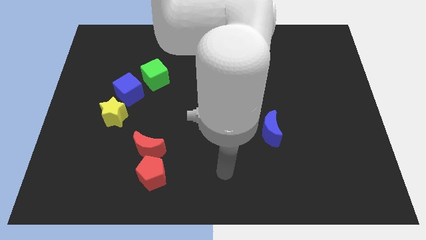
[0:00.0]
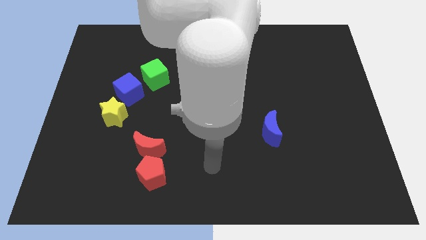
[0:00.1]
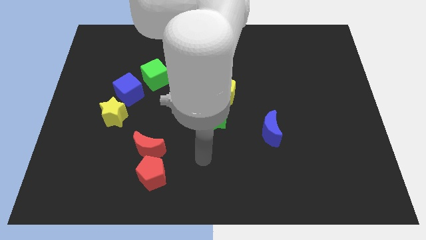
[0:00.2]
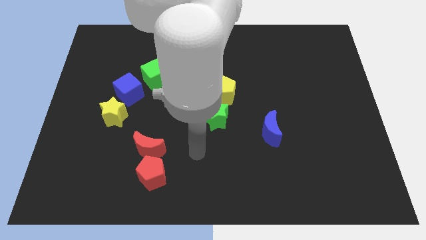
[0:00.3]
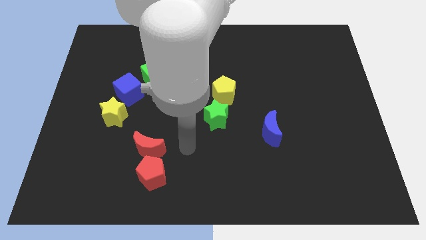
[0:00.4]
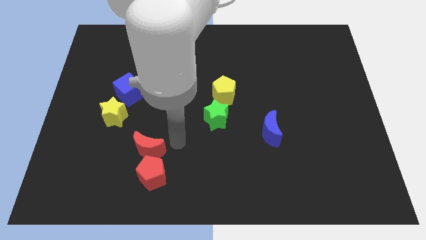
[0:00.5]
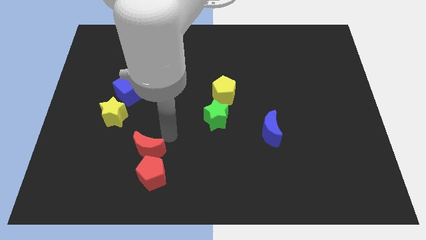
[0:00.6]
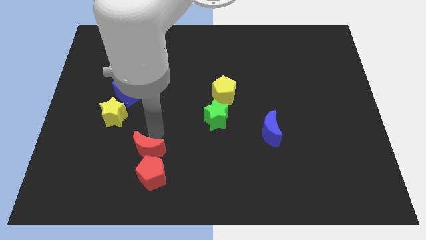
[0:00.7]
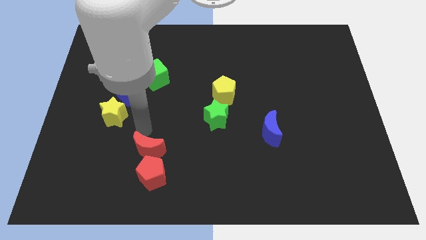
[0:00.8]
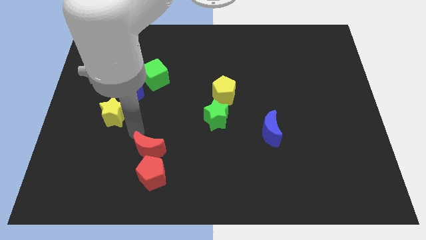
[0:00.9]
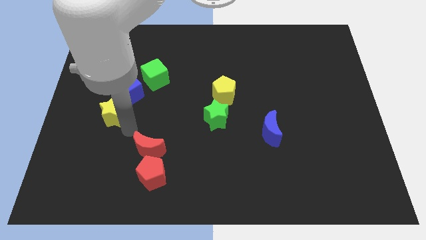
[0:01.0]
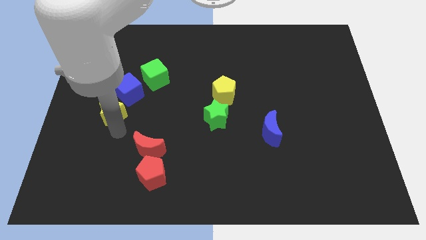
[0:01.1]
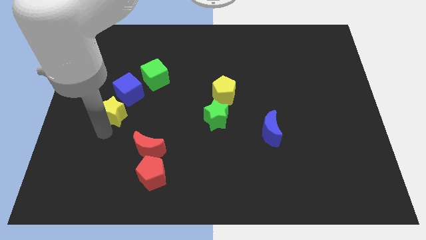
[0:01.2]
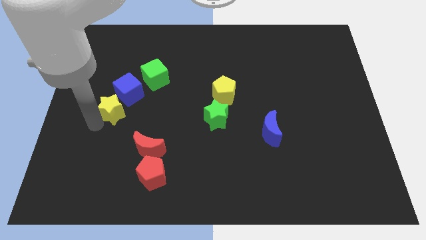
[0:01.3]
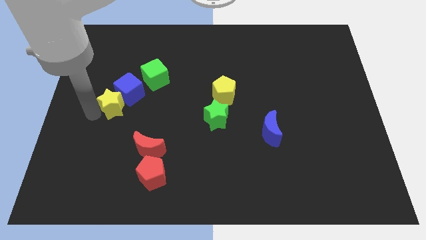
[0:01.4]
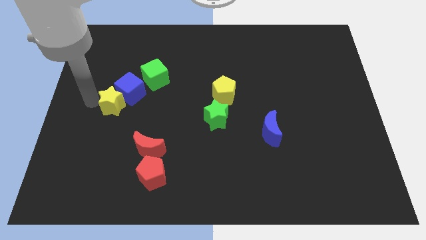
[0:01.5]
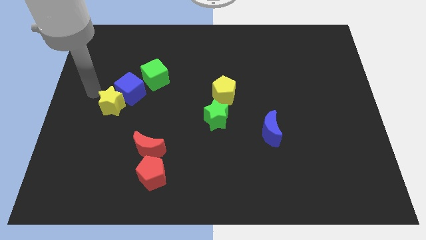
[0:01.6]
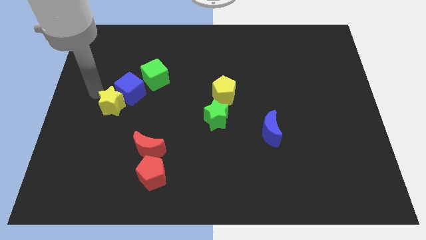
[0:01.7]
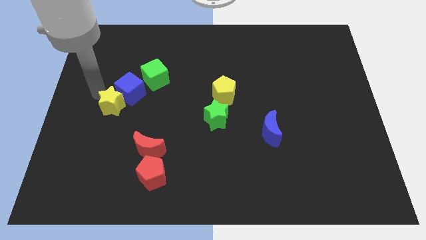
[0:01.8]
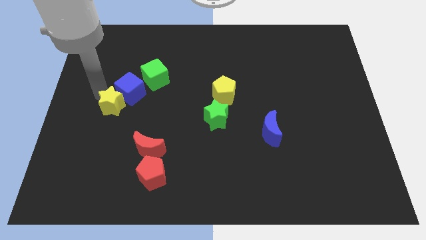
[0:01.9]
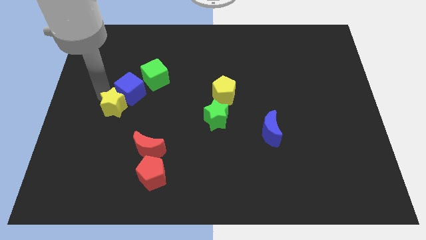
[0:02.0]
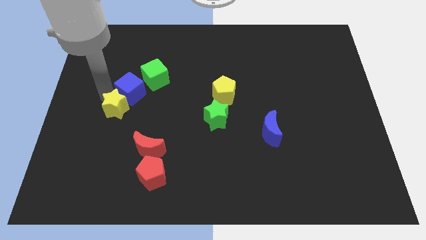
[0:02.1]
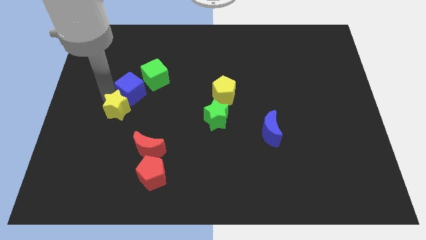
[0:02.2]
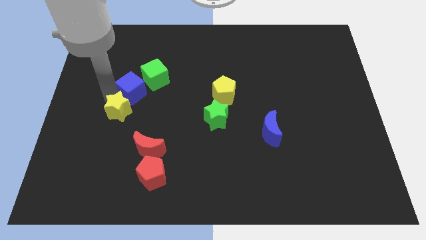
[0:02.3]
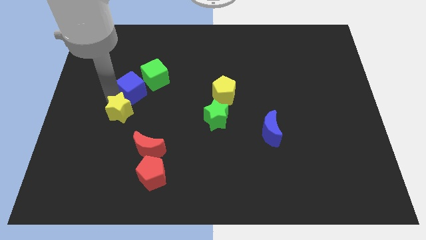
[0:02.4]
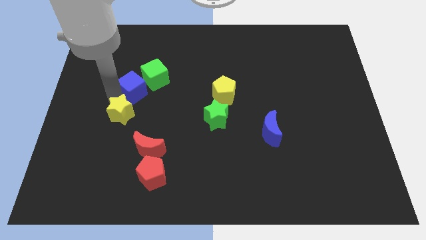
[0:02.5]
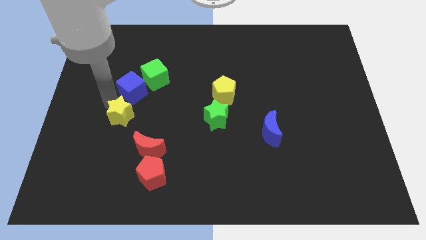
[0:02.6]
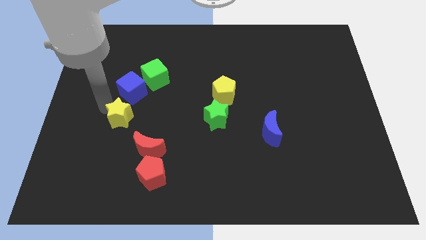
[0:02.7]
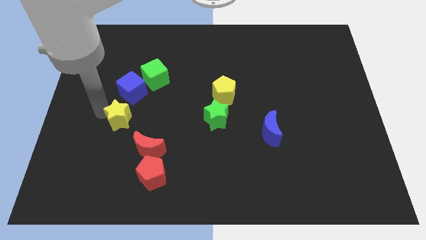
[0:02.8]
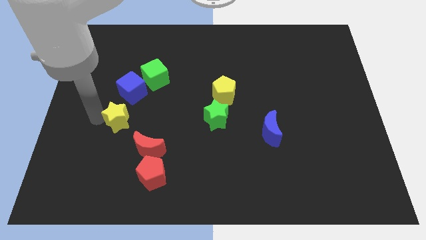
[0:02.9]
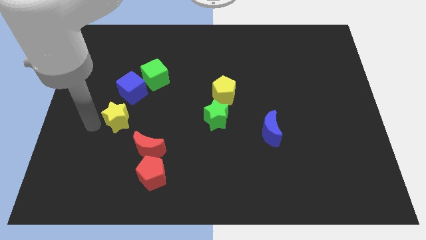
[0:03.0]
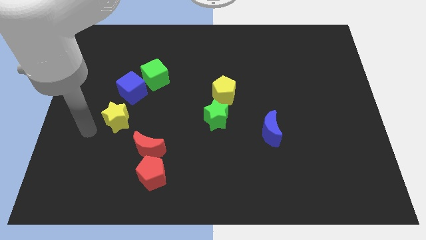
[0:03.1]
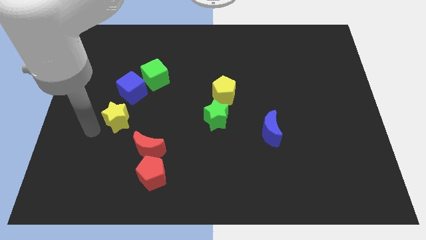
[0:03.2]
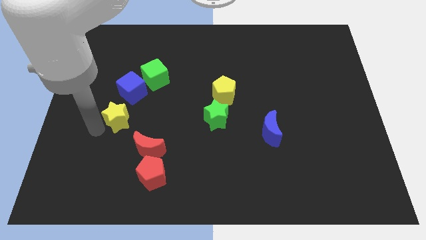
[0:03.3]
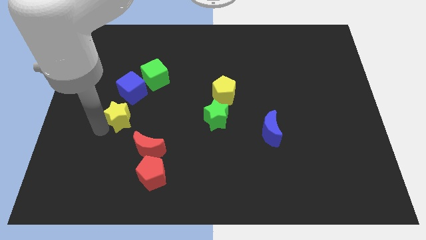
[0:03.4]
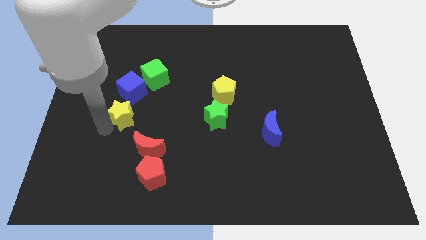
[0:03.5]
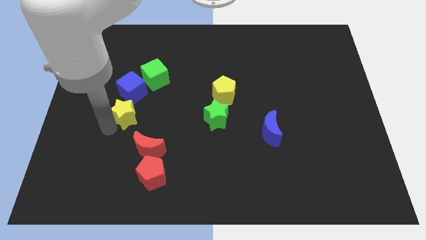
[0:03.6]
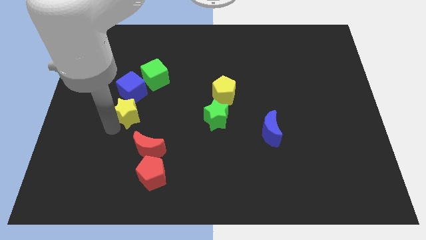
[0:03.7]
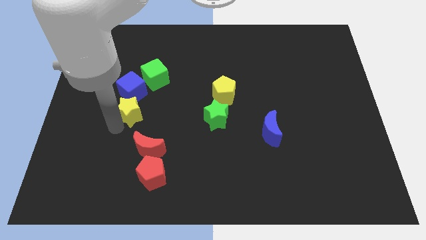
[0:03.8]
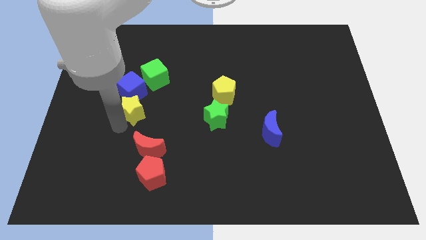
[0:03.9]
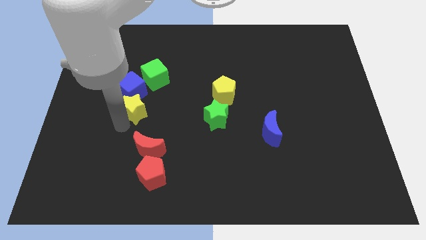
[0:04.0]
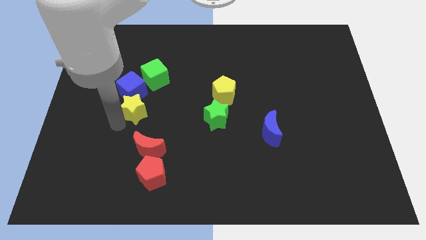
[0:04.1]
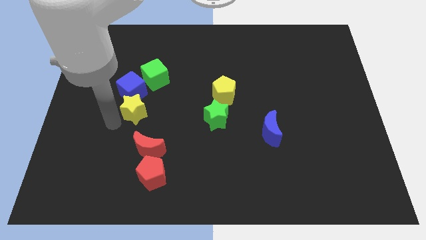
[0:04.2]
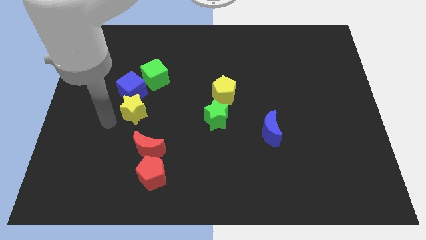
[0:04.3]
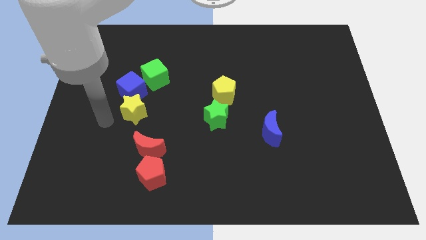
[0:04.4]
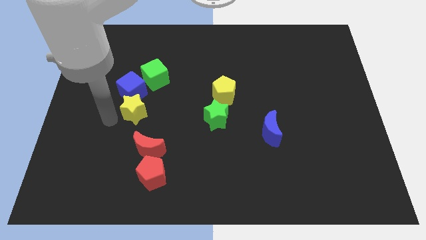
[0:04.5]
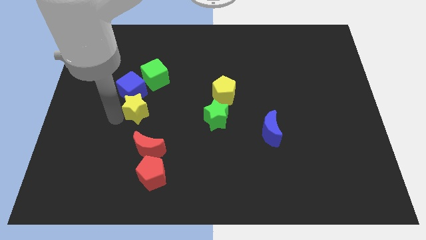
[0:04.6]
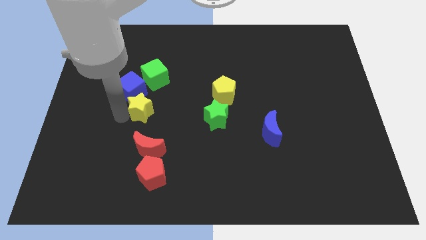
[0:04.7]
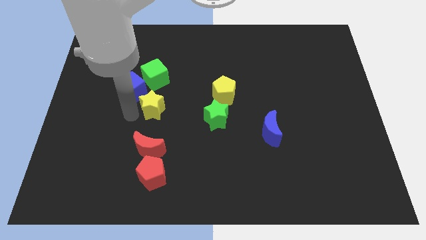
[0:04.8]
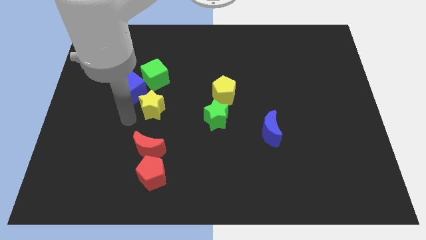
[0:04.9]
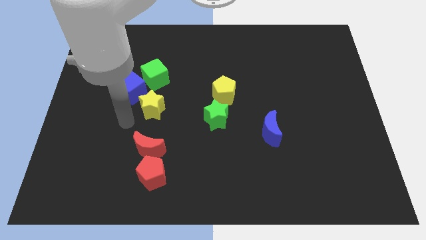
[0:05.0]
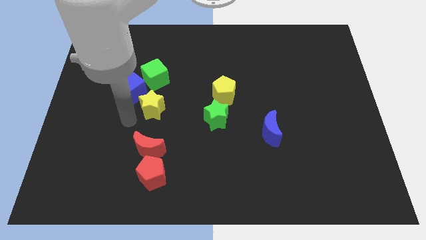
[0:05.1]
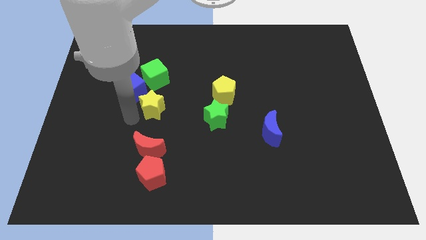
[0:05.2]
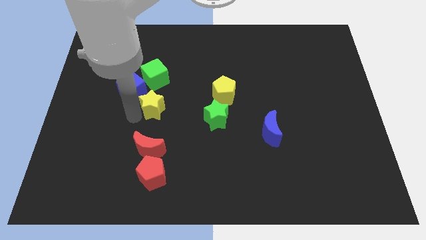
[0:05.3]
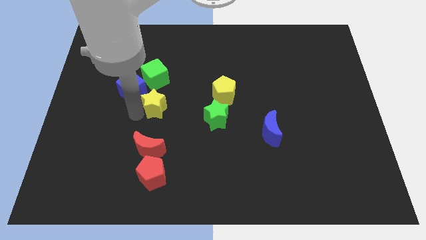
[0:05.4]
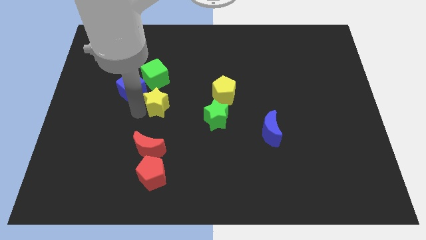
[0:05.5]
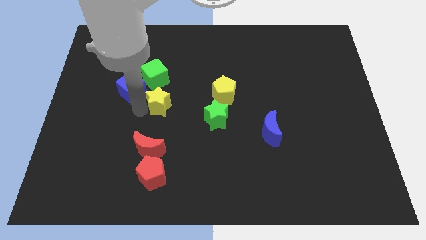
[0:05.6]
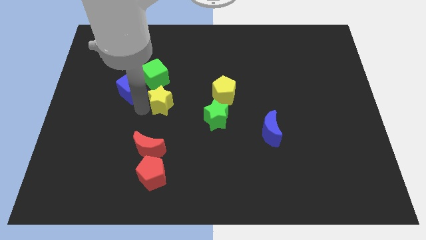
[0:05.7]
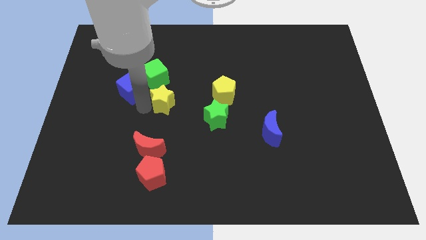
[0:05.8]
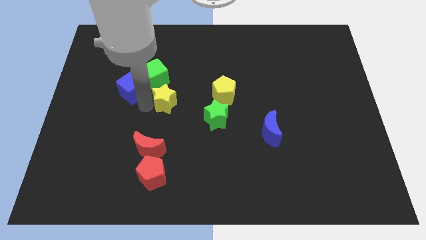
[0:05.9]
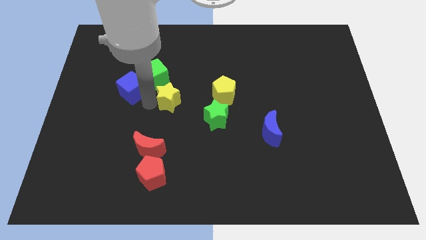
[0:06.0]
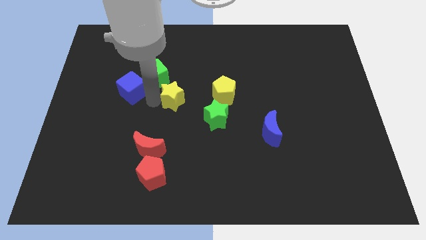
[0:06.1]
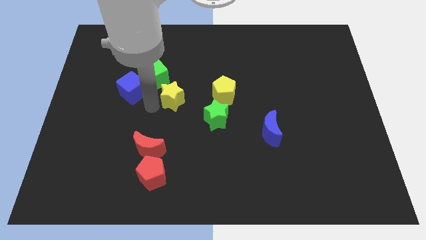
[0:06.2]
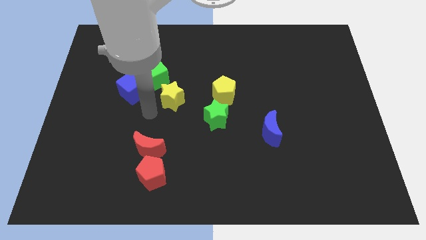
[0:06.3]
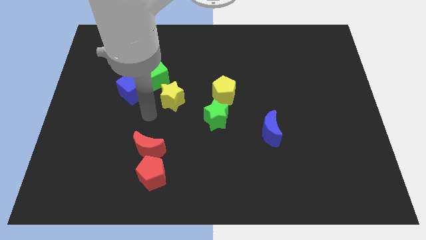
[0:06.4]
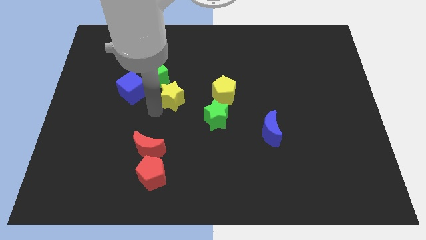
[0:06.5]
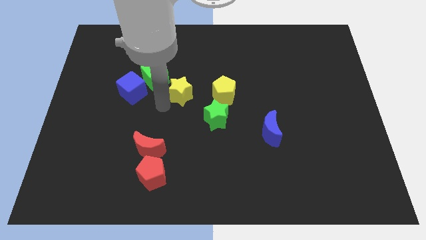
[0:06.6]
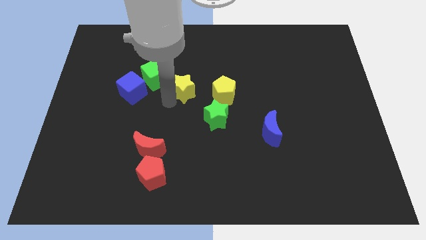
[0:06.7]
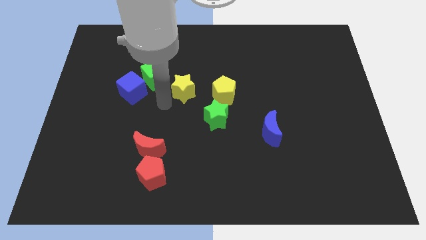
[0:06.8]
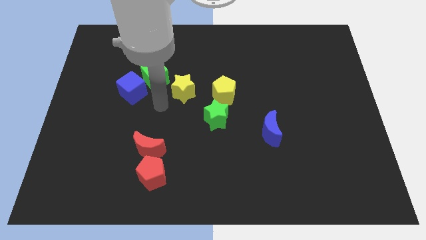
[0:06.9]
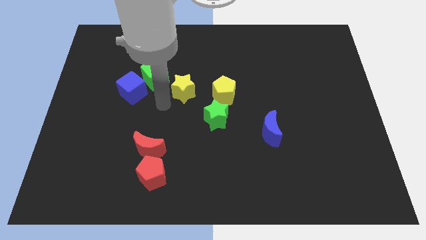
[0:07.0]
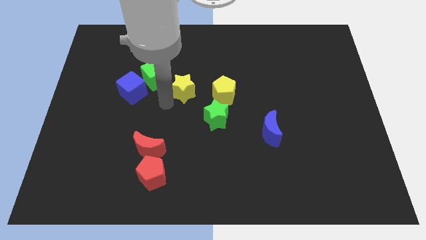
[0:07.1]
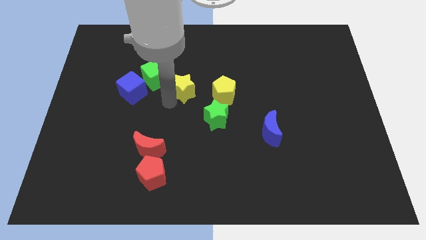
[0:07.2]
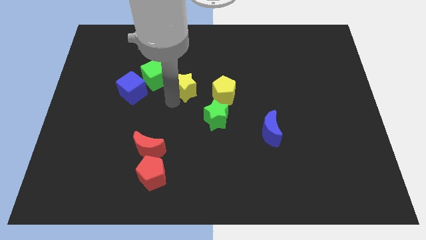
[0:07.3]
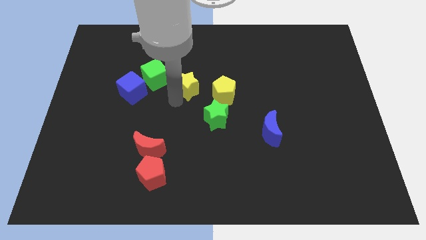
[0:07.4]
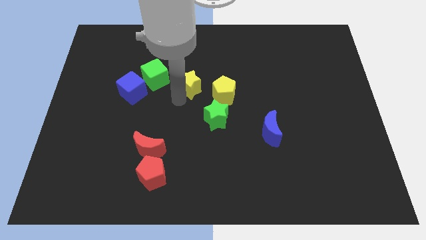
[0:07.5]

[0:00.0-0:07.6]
push the yellow star diagonally up and to the left of the yellow pentagon
